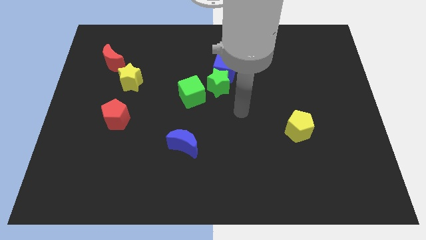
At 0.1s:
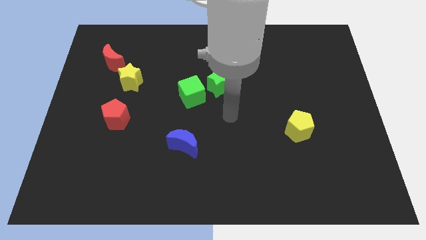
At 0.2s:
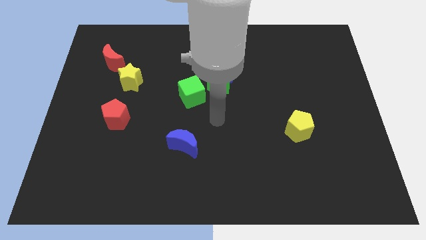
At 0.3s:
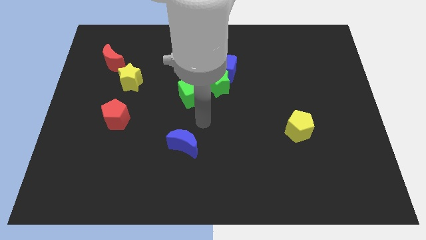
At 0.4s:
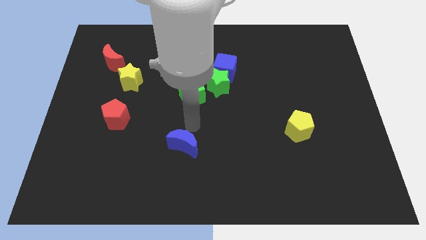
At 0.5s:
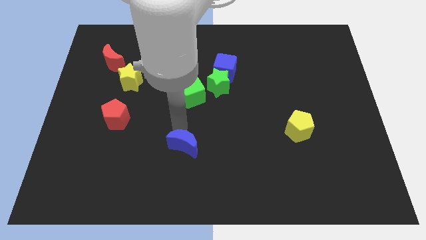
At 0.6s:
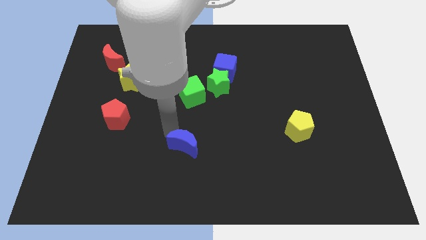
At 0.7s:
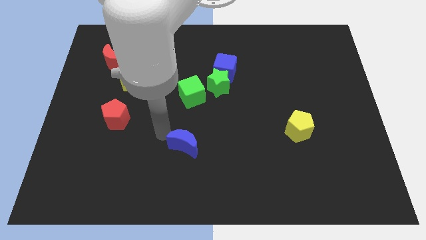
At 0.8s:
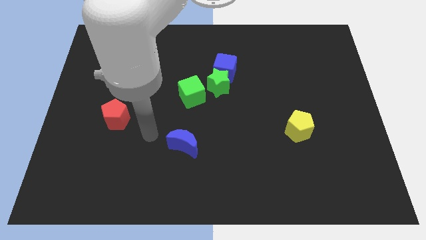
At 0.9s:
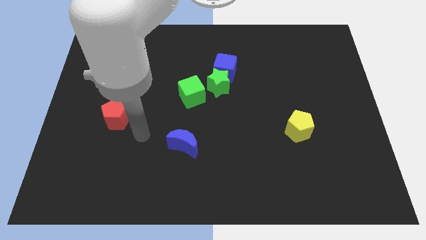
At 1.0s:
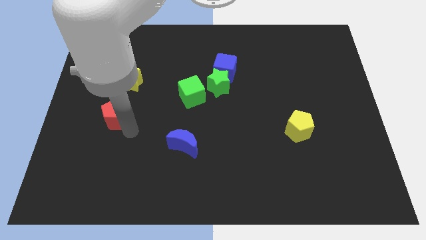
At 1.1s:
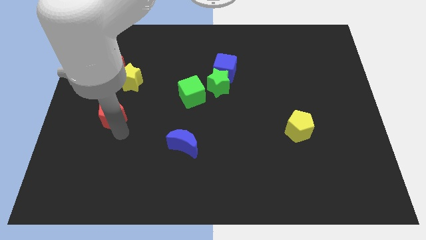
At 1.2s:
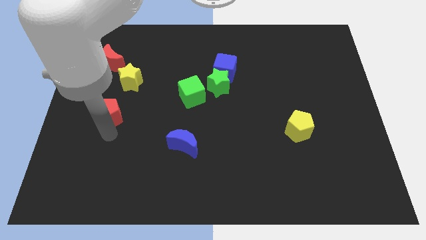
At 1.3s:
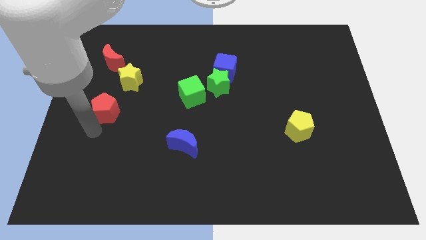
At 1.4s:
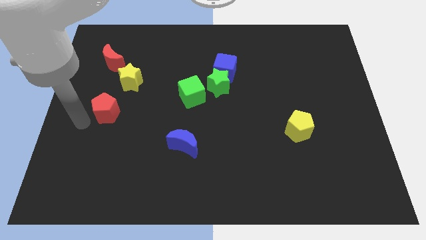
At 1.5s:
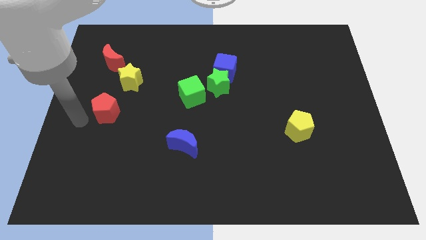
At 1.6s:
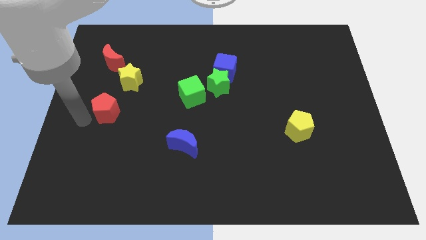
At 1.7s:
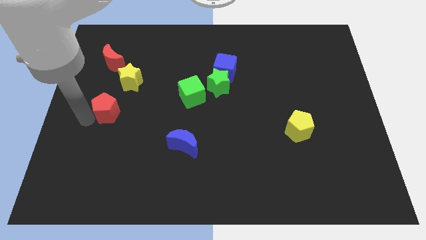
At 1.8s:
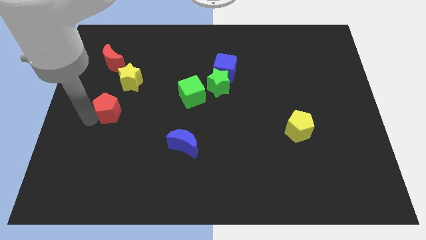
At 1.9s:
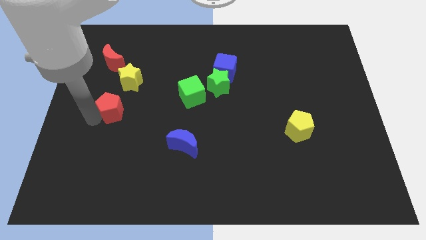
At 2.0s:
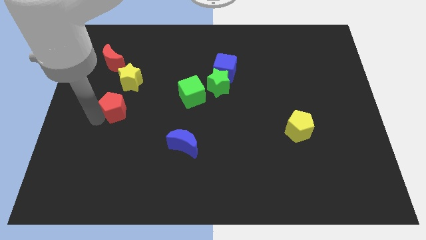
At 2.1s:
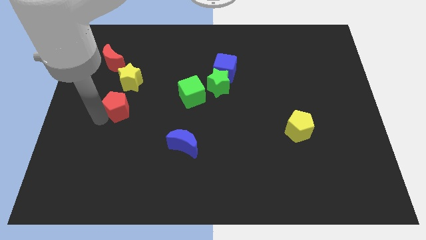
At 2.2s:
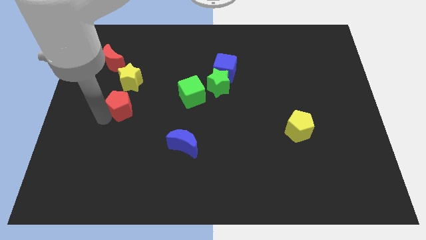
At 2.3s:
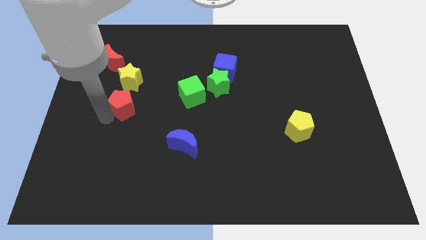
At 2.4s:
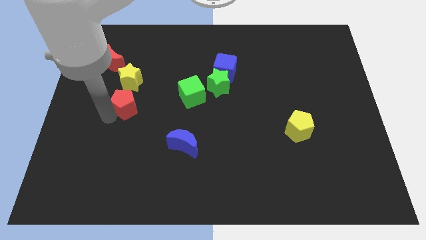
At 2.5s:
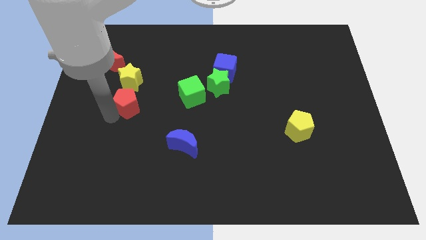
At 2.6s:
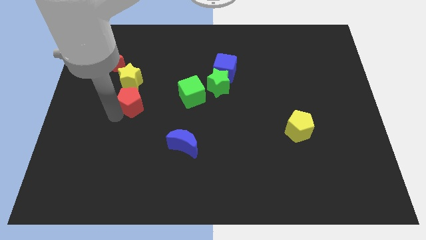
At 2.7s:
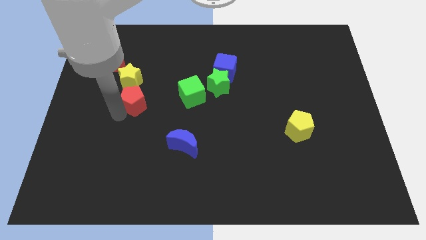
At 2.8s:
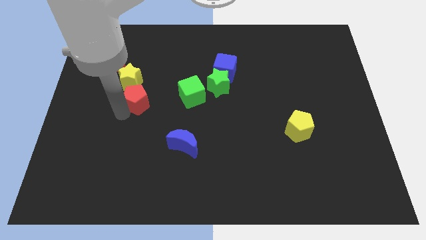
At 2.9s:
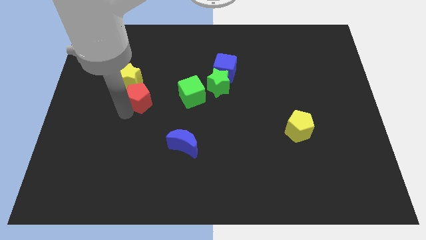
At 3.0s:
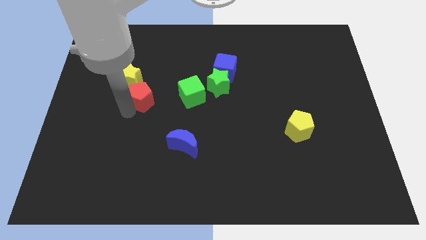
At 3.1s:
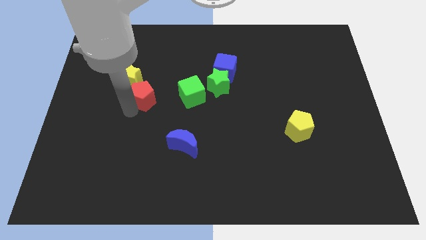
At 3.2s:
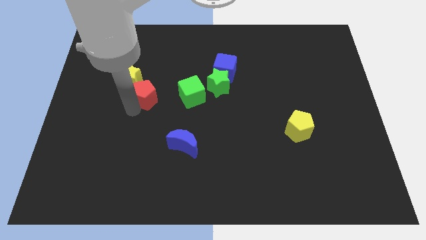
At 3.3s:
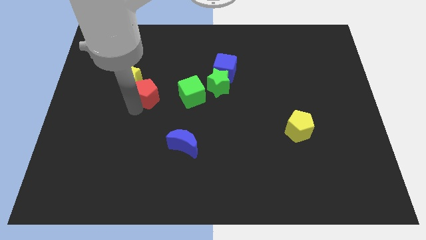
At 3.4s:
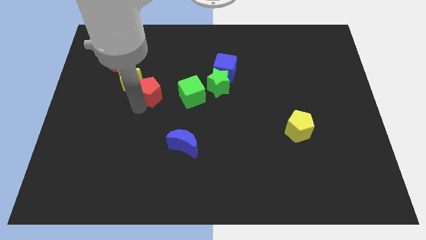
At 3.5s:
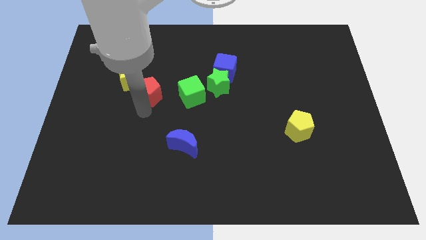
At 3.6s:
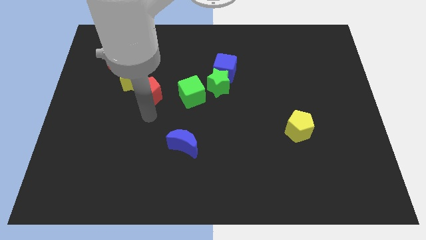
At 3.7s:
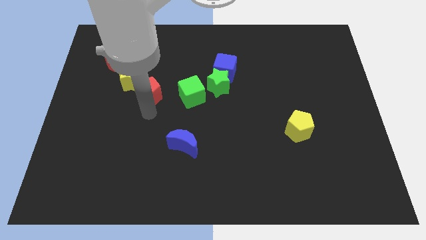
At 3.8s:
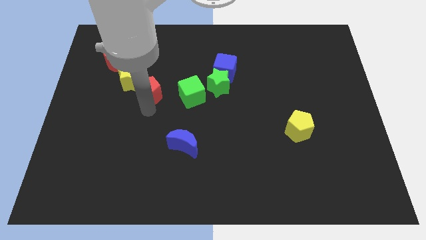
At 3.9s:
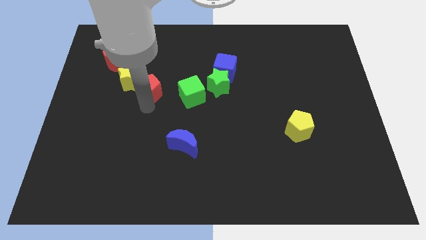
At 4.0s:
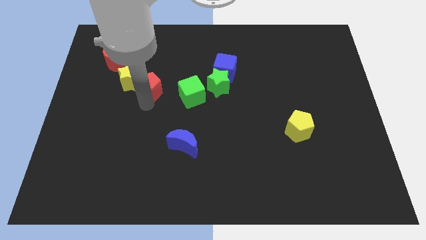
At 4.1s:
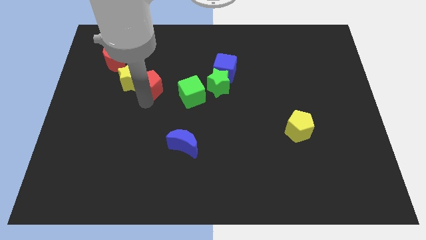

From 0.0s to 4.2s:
slide the red pentagon a little upwards

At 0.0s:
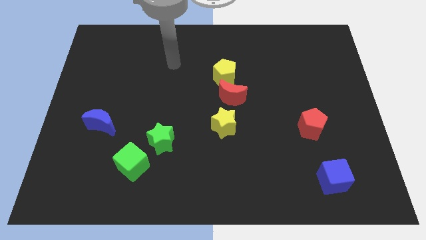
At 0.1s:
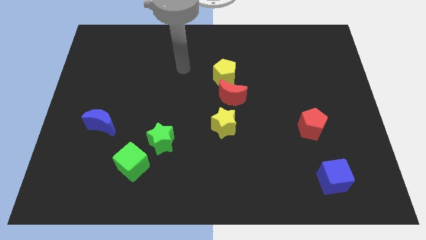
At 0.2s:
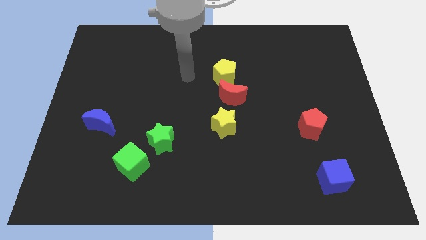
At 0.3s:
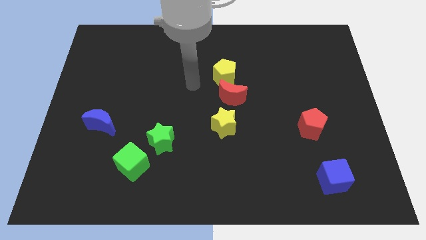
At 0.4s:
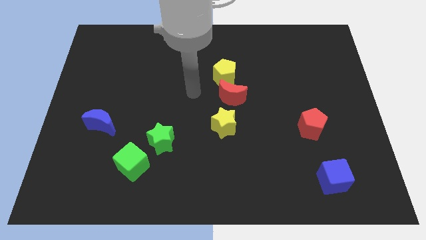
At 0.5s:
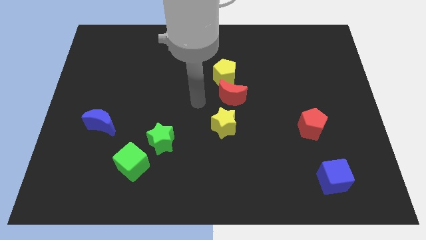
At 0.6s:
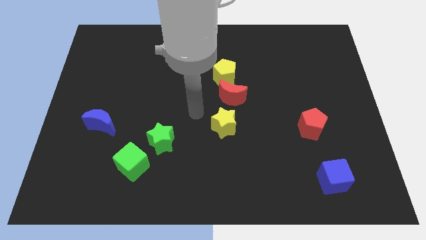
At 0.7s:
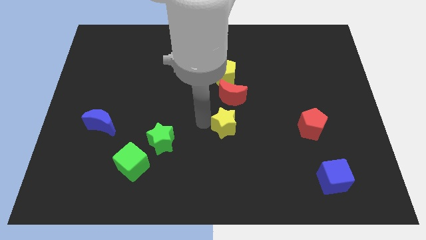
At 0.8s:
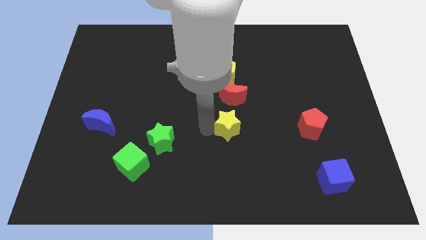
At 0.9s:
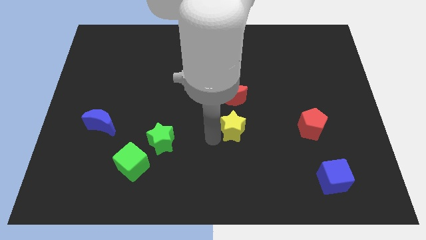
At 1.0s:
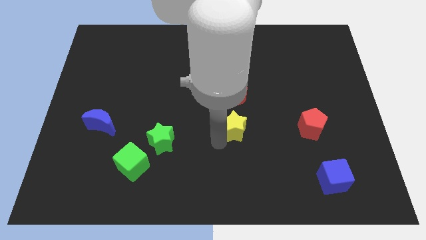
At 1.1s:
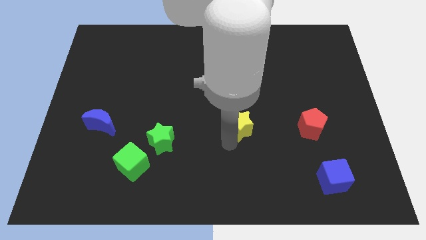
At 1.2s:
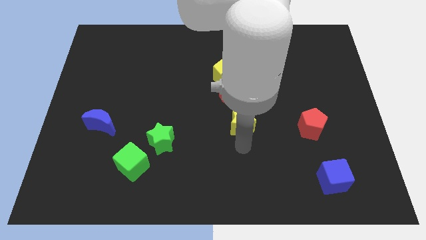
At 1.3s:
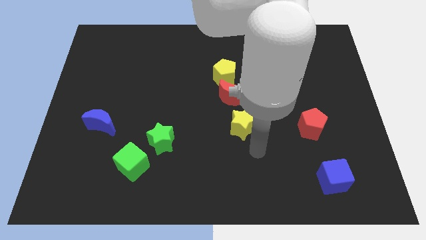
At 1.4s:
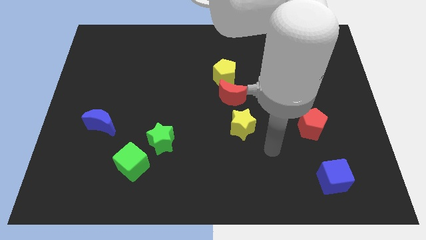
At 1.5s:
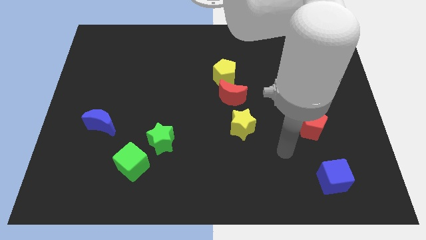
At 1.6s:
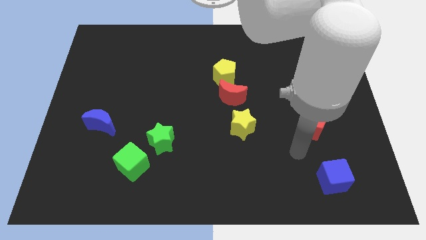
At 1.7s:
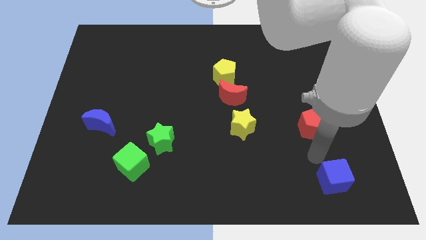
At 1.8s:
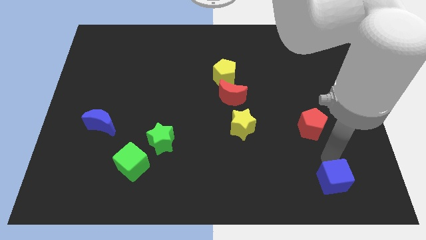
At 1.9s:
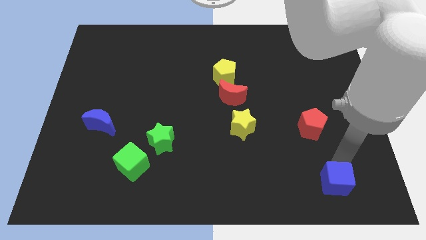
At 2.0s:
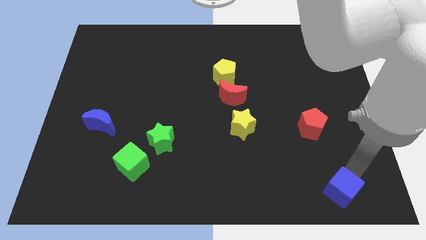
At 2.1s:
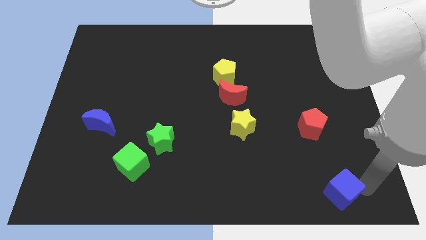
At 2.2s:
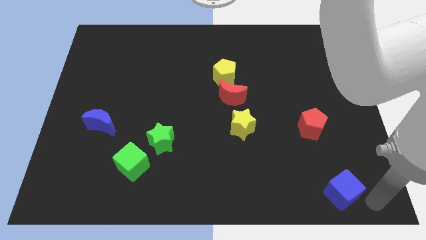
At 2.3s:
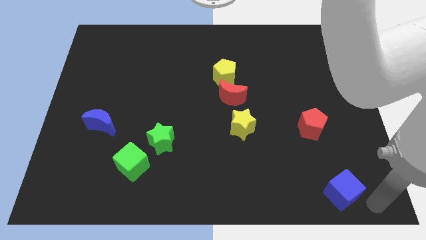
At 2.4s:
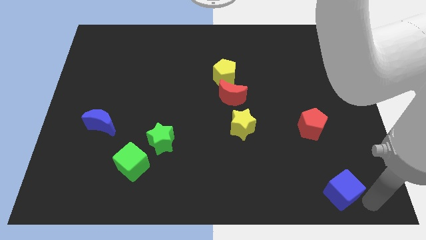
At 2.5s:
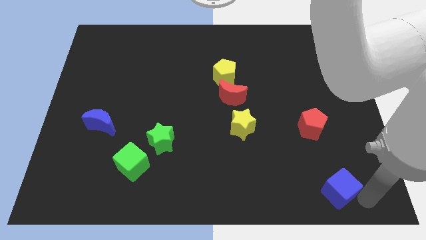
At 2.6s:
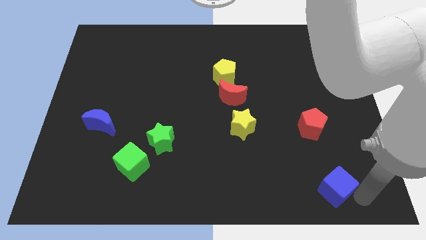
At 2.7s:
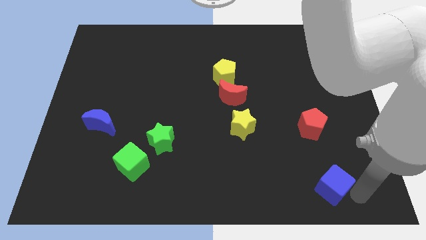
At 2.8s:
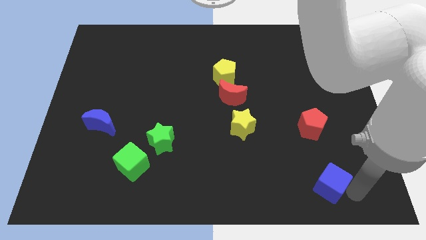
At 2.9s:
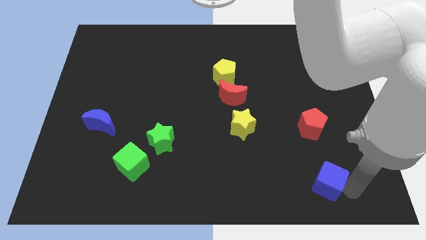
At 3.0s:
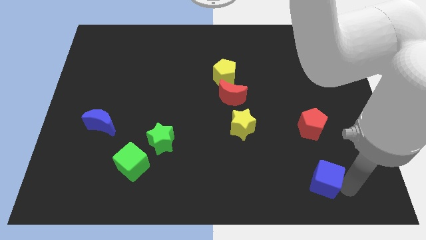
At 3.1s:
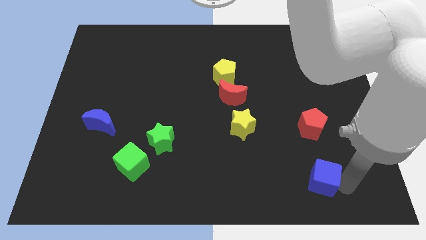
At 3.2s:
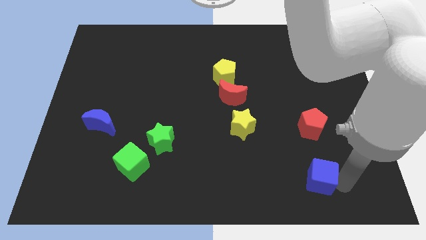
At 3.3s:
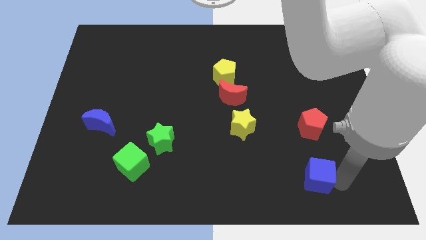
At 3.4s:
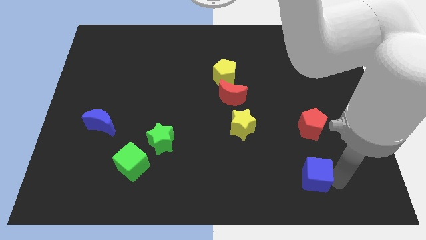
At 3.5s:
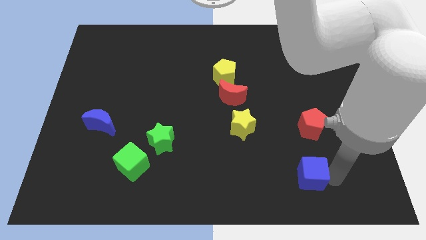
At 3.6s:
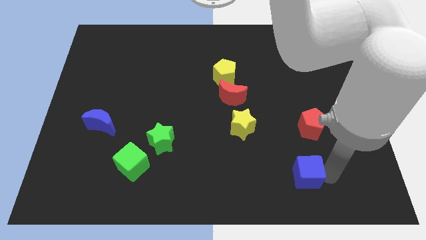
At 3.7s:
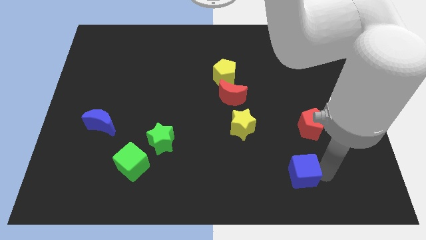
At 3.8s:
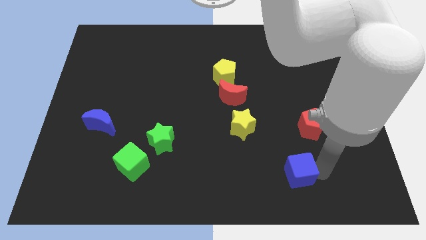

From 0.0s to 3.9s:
move the blue cube to the left somewhat

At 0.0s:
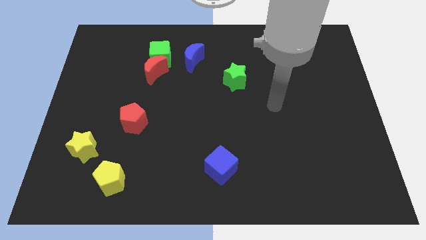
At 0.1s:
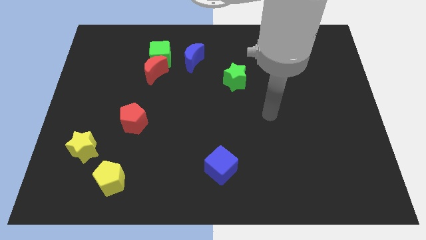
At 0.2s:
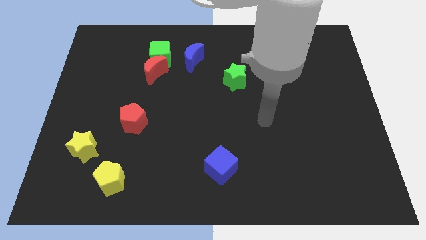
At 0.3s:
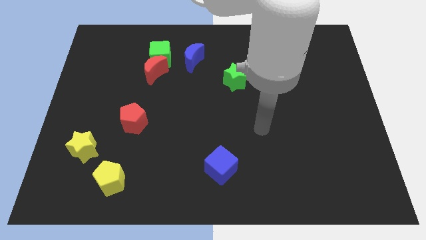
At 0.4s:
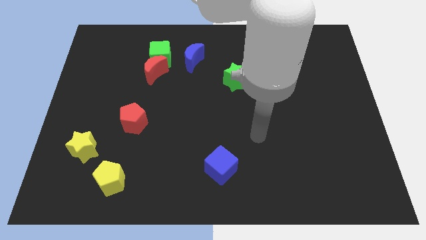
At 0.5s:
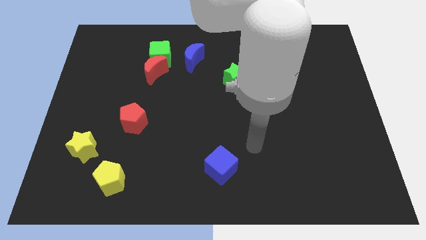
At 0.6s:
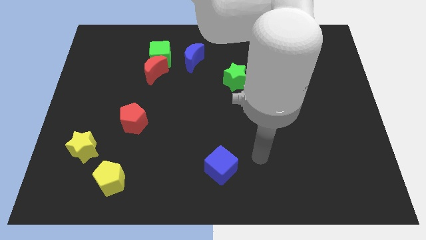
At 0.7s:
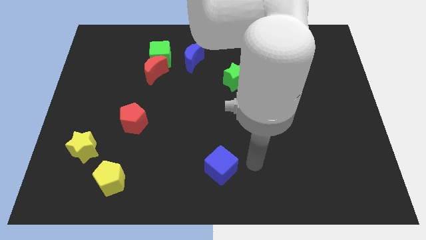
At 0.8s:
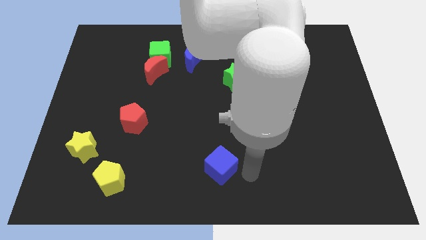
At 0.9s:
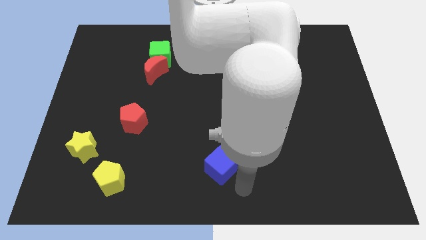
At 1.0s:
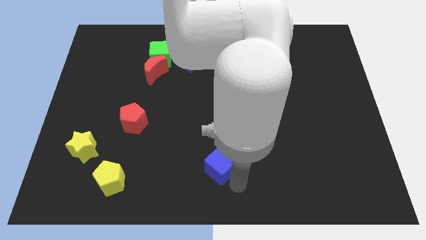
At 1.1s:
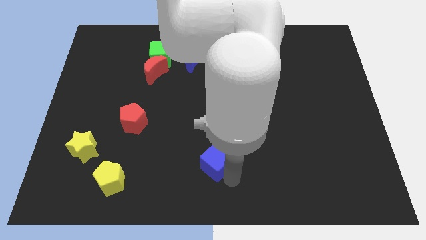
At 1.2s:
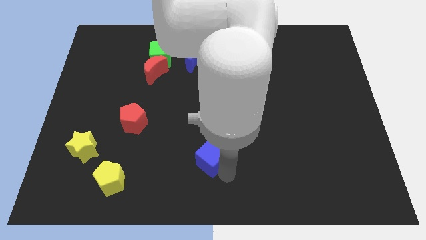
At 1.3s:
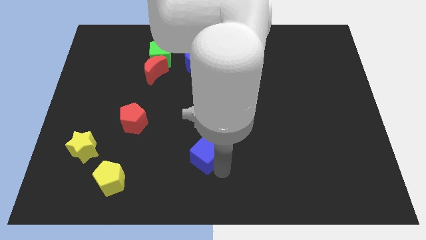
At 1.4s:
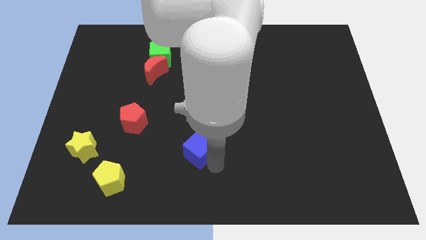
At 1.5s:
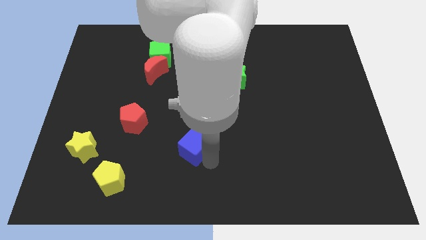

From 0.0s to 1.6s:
slide the blue cube slightly upwards and then to the left
